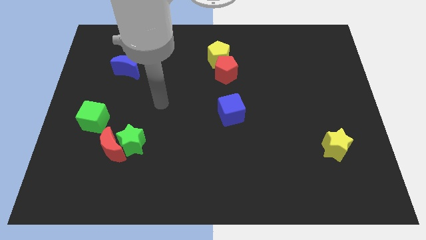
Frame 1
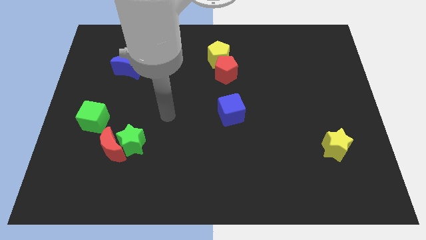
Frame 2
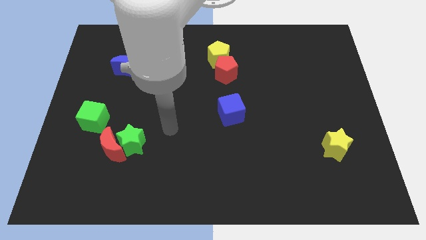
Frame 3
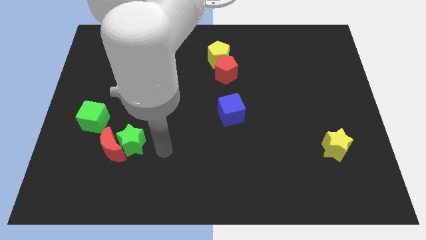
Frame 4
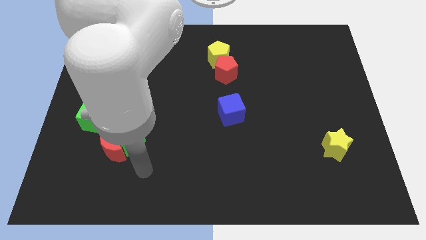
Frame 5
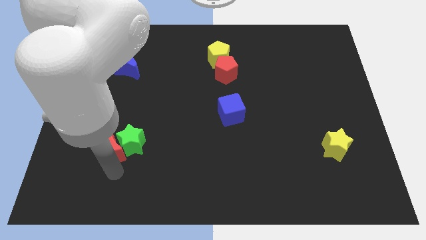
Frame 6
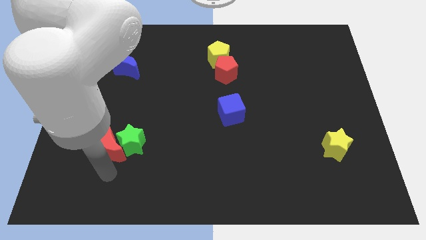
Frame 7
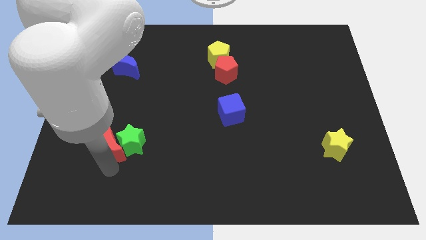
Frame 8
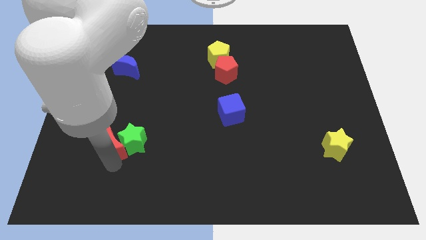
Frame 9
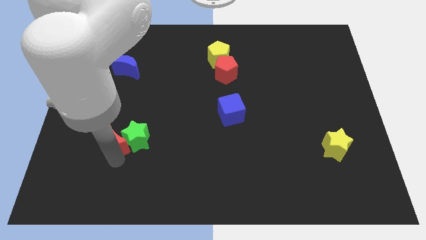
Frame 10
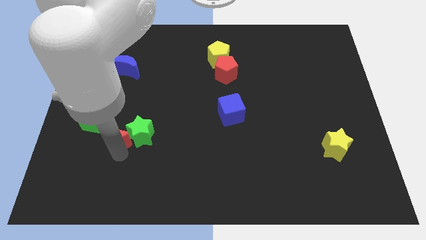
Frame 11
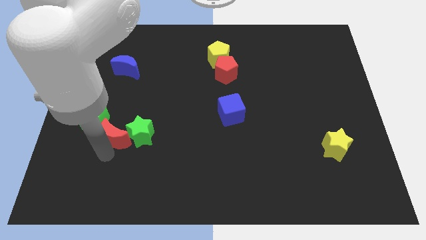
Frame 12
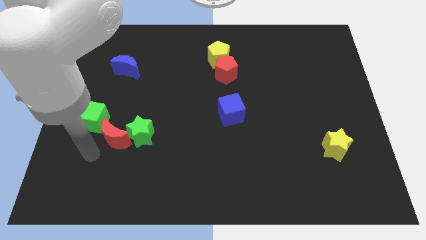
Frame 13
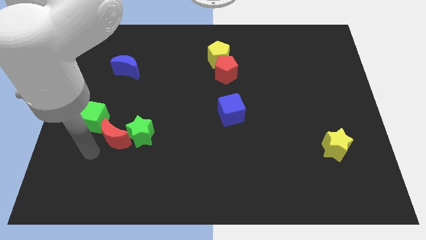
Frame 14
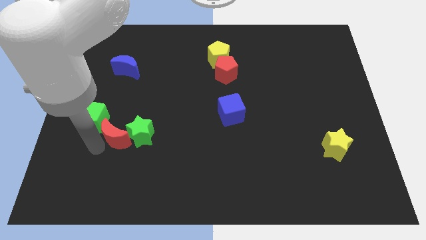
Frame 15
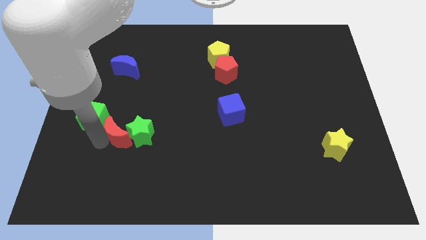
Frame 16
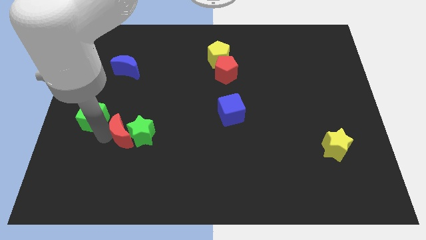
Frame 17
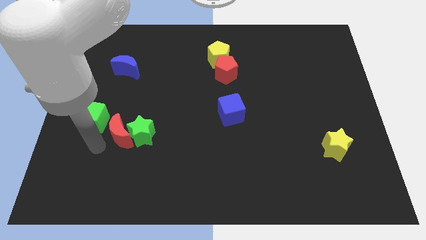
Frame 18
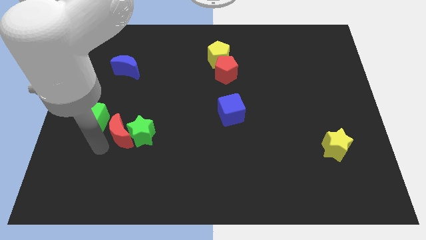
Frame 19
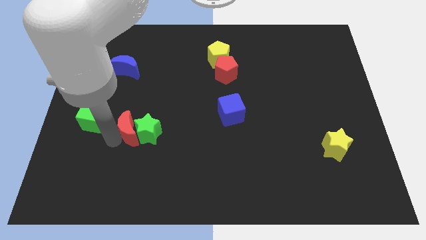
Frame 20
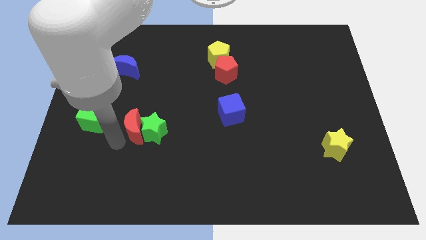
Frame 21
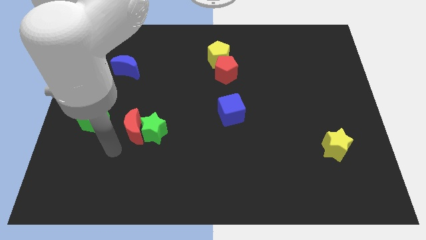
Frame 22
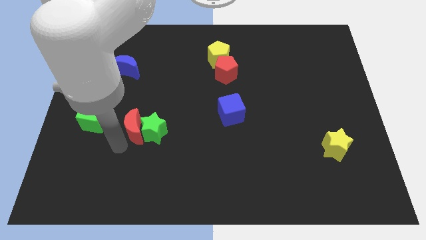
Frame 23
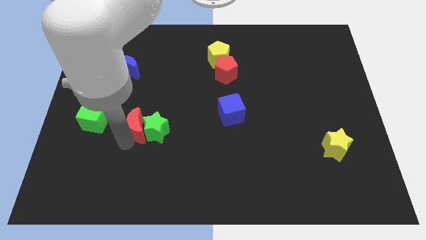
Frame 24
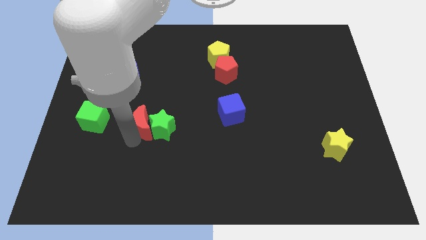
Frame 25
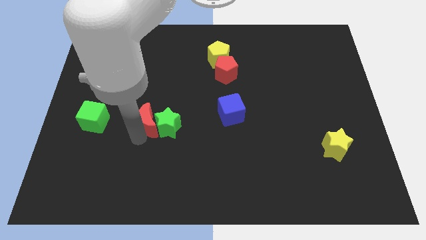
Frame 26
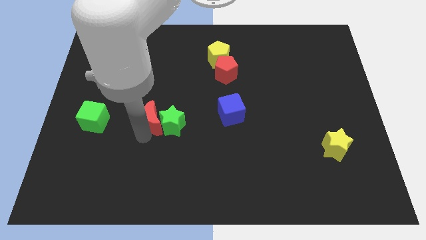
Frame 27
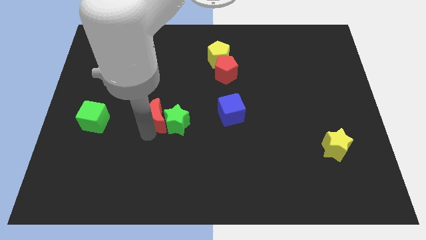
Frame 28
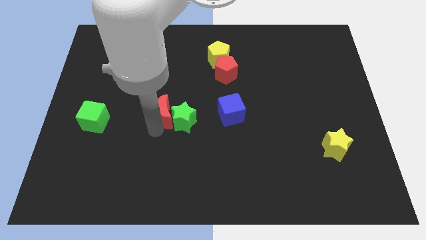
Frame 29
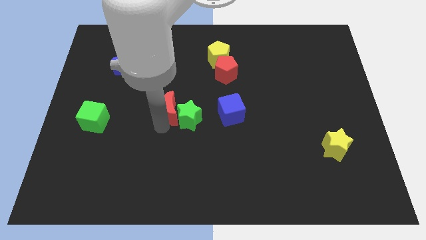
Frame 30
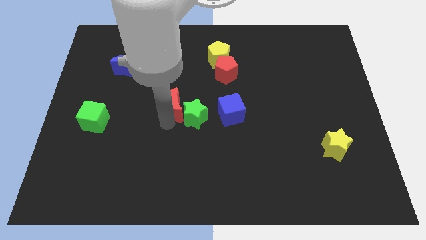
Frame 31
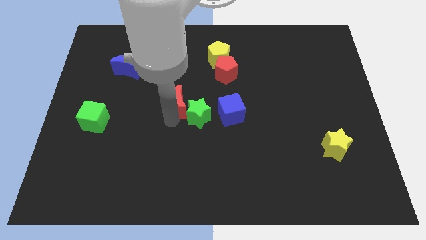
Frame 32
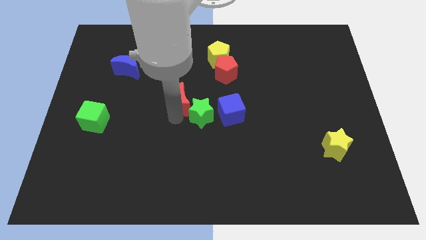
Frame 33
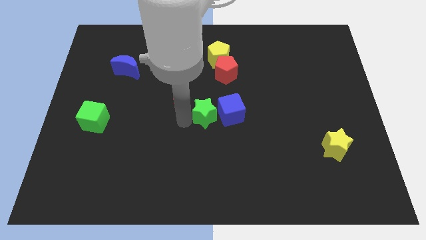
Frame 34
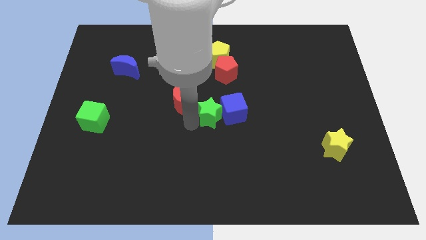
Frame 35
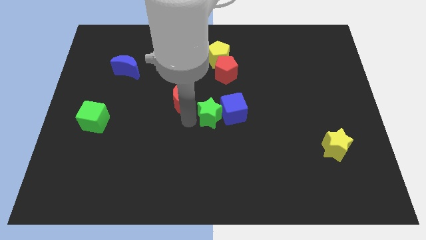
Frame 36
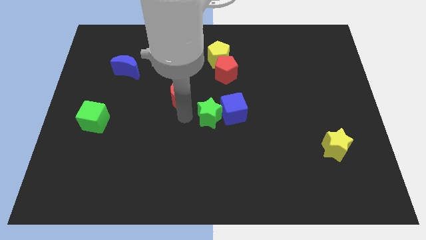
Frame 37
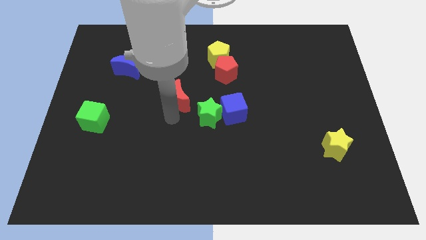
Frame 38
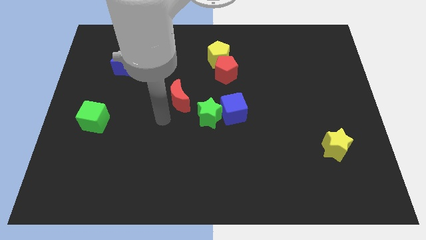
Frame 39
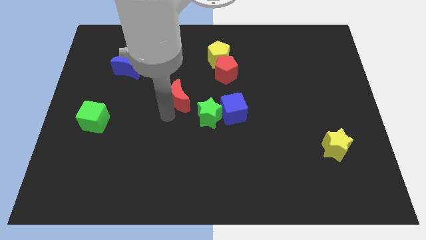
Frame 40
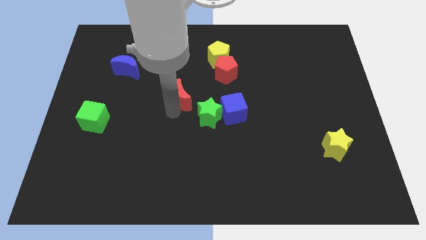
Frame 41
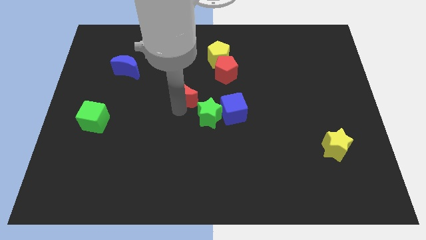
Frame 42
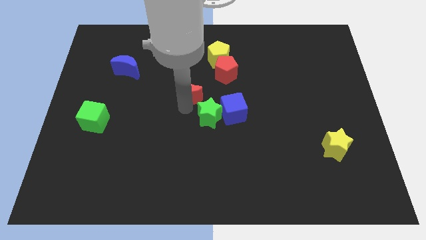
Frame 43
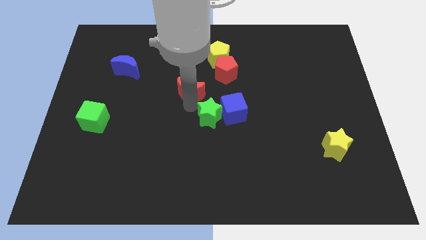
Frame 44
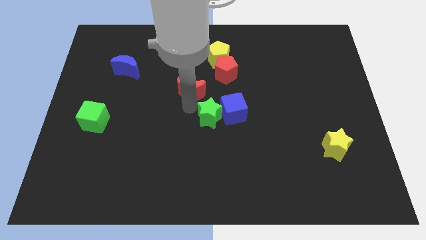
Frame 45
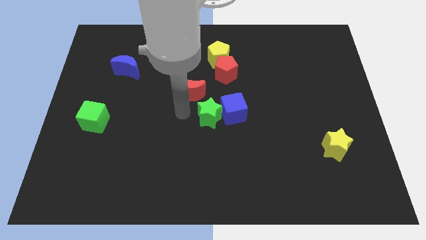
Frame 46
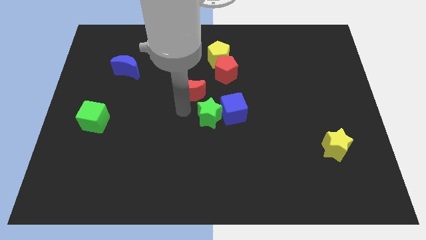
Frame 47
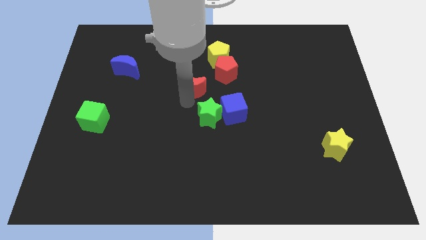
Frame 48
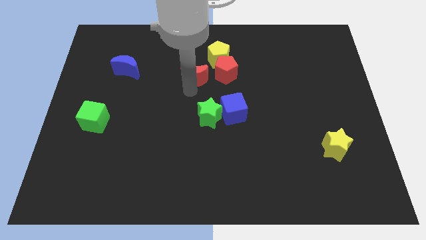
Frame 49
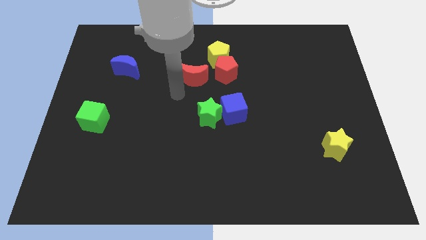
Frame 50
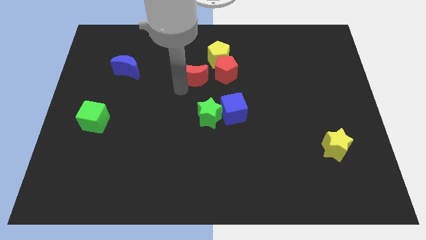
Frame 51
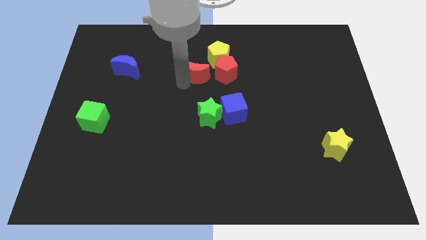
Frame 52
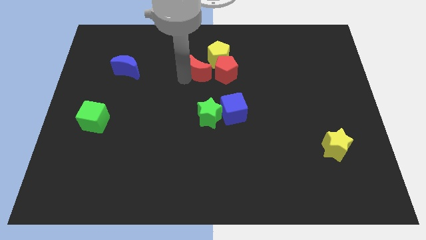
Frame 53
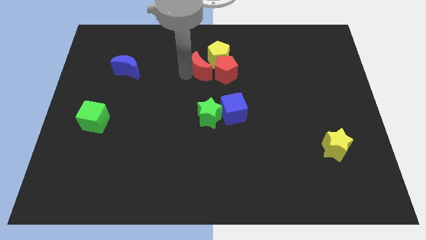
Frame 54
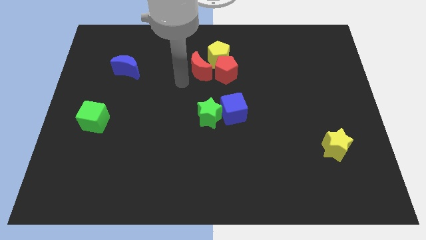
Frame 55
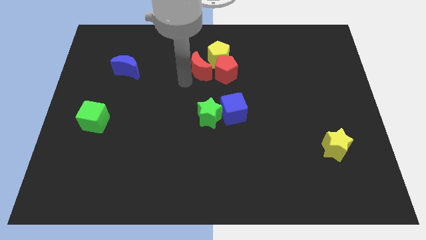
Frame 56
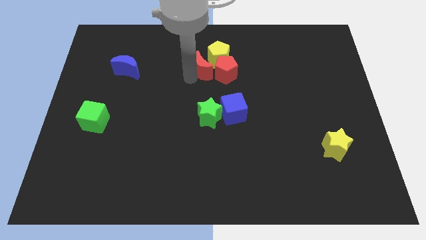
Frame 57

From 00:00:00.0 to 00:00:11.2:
put the red moon next to the yellow pentagon

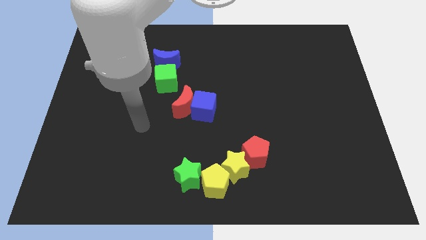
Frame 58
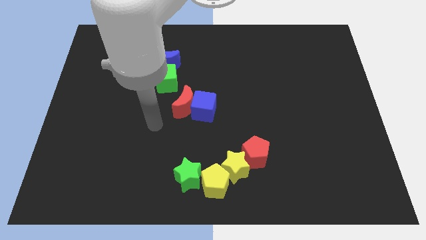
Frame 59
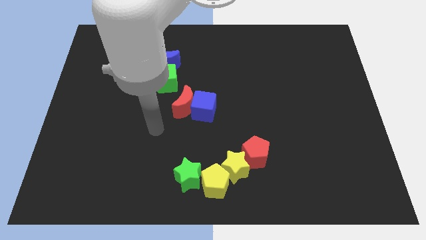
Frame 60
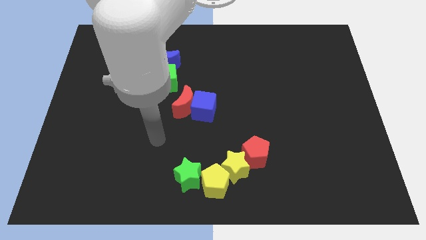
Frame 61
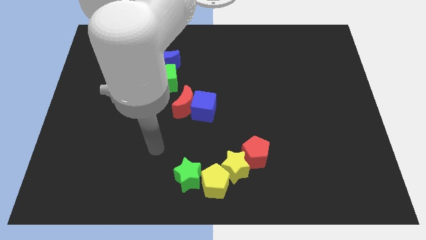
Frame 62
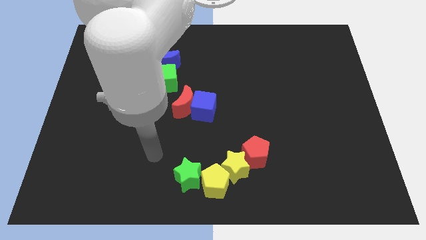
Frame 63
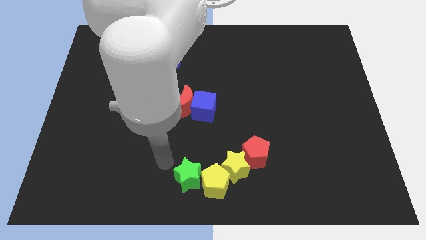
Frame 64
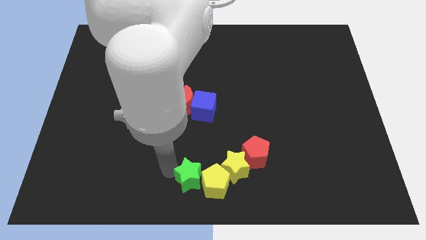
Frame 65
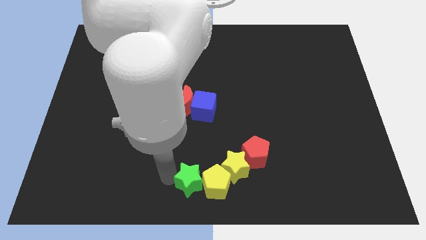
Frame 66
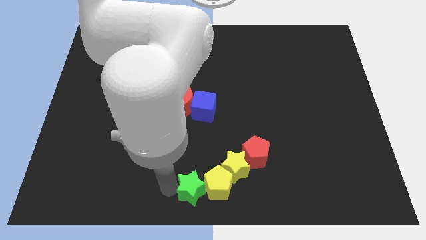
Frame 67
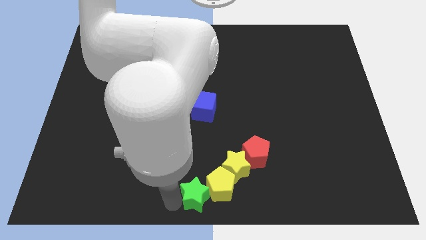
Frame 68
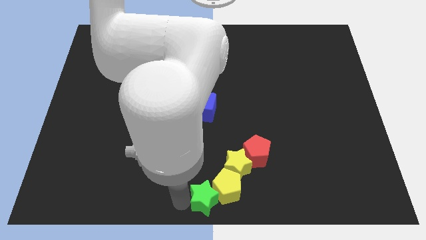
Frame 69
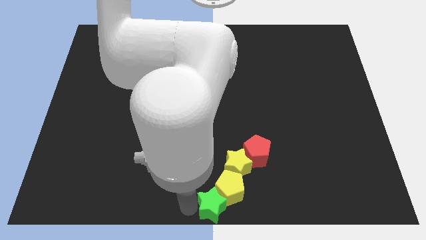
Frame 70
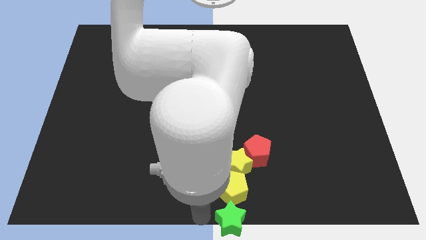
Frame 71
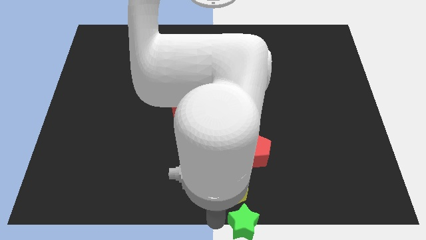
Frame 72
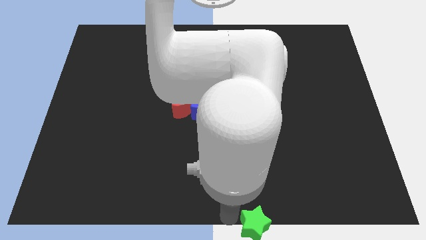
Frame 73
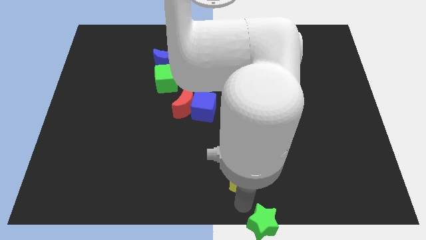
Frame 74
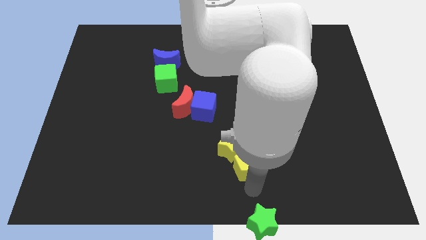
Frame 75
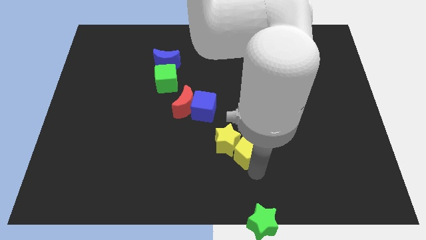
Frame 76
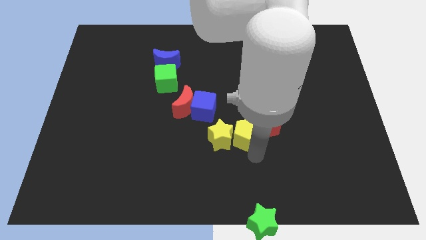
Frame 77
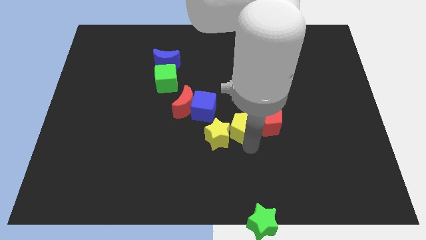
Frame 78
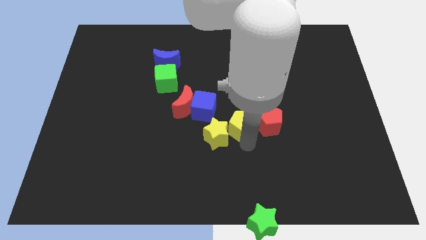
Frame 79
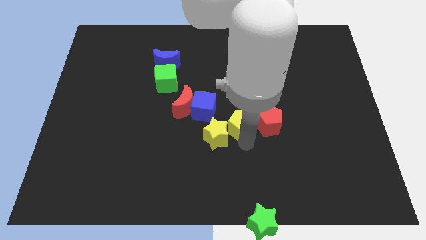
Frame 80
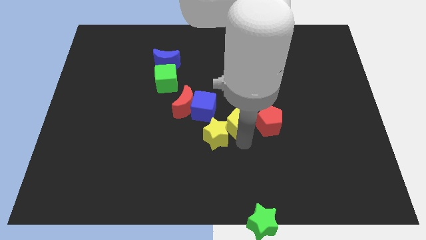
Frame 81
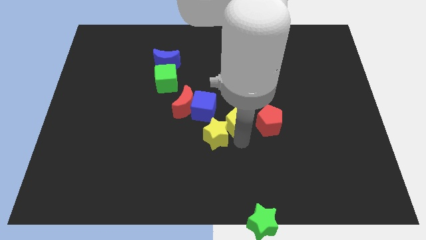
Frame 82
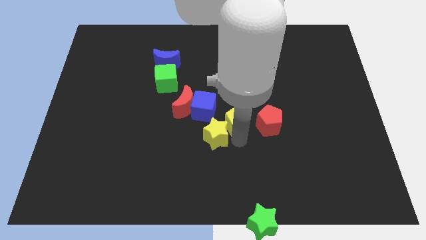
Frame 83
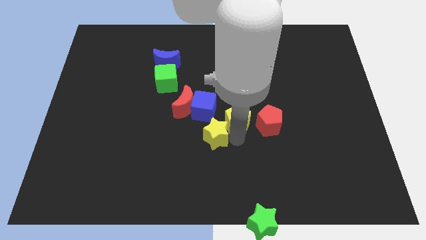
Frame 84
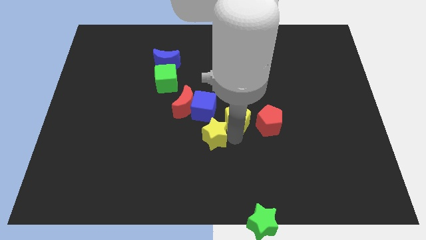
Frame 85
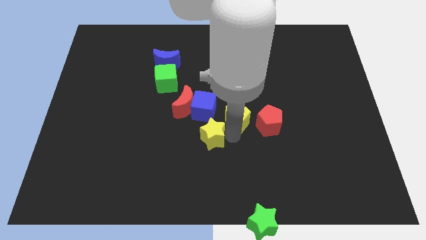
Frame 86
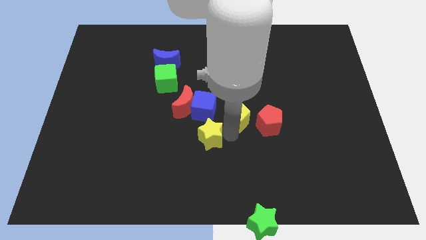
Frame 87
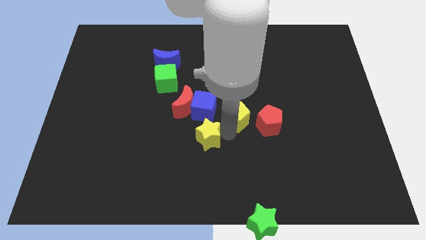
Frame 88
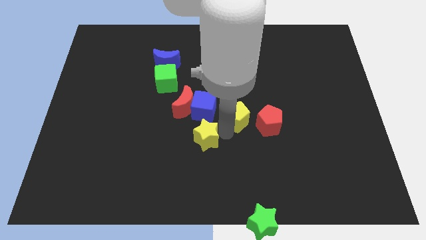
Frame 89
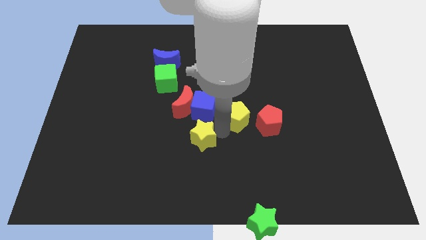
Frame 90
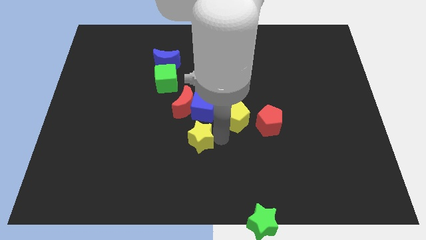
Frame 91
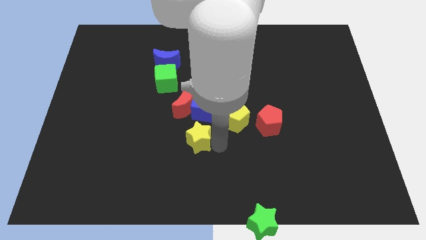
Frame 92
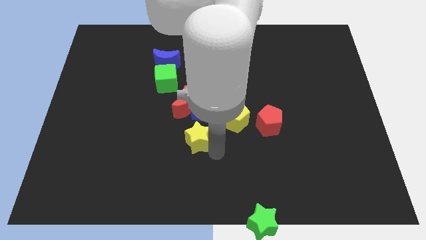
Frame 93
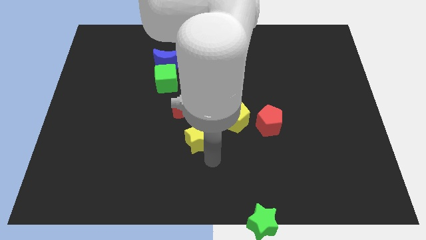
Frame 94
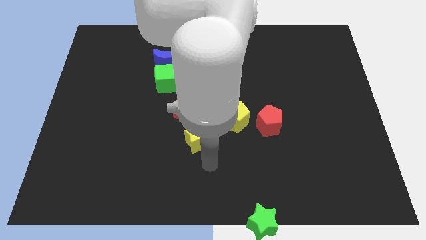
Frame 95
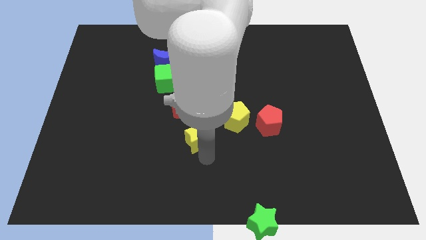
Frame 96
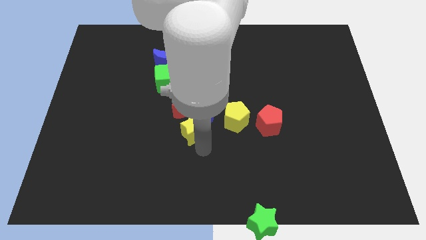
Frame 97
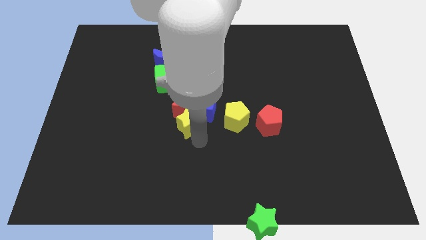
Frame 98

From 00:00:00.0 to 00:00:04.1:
push the yellow star towards the red moon
